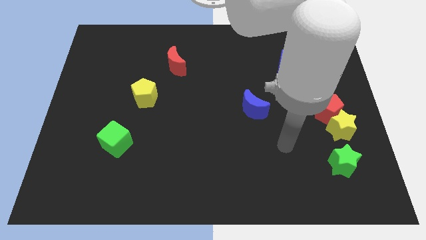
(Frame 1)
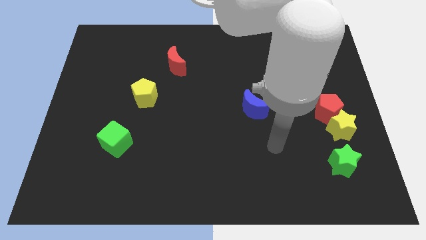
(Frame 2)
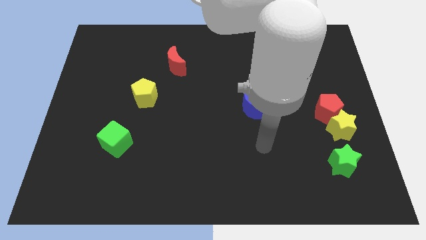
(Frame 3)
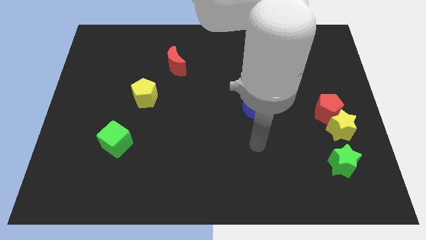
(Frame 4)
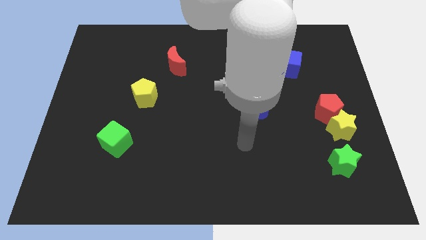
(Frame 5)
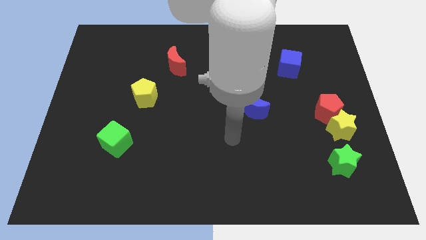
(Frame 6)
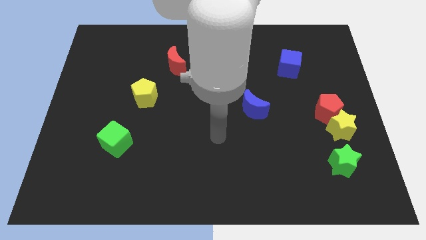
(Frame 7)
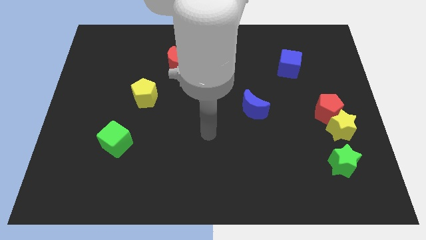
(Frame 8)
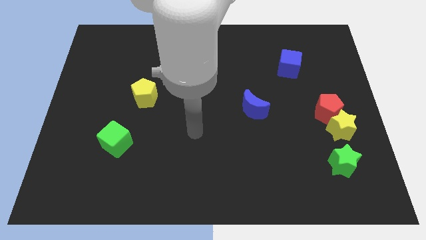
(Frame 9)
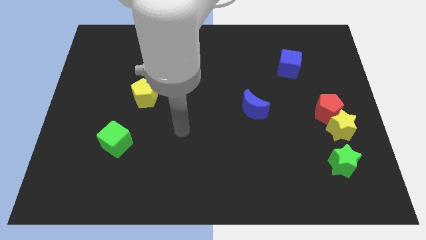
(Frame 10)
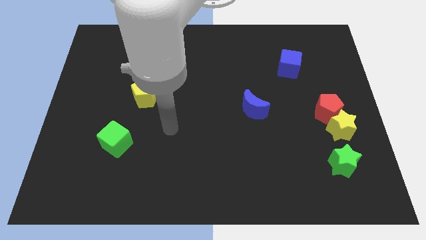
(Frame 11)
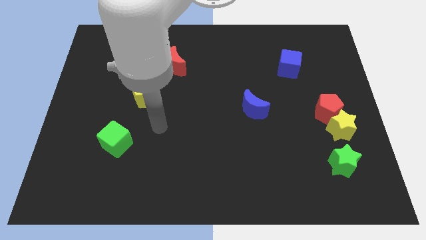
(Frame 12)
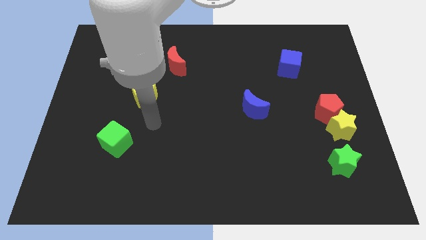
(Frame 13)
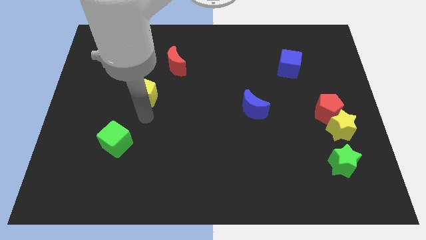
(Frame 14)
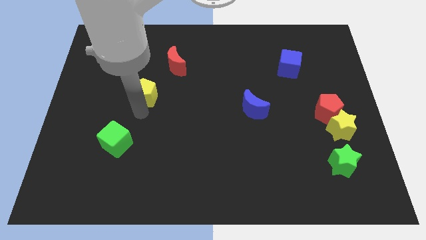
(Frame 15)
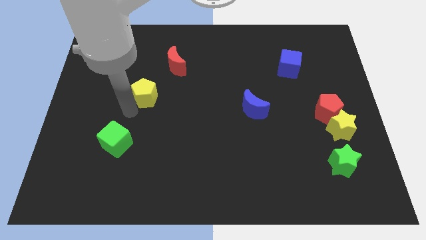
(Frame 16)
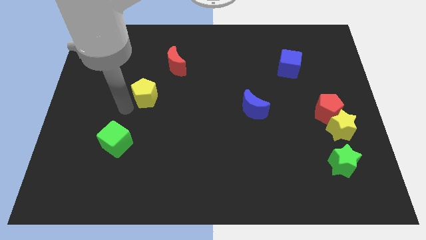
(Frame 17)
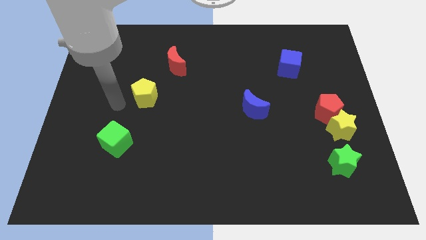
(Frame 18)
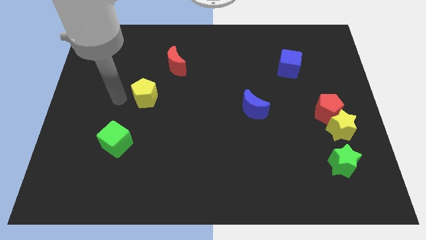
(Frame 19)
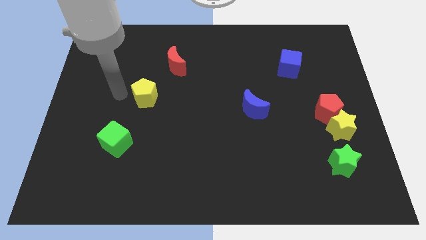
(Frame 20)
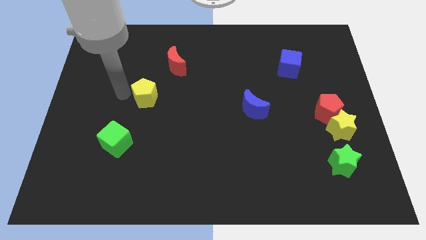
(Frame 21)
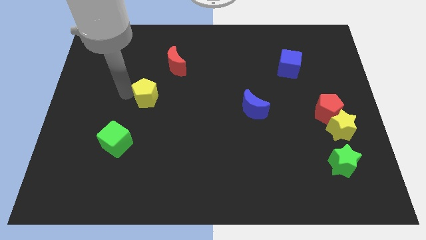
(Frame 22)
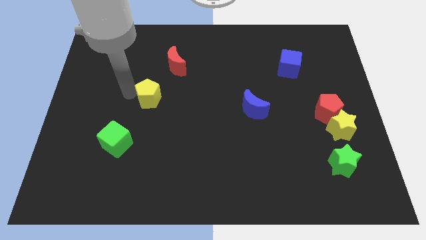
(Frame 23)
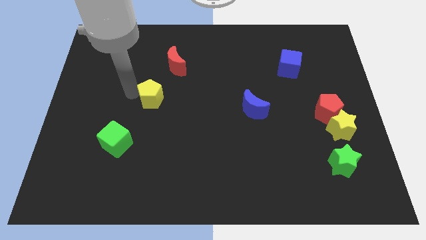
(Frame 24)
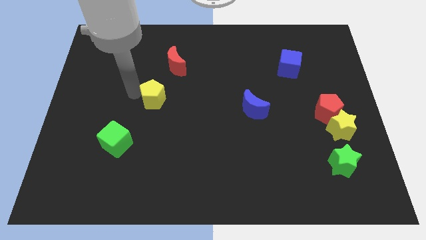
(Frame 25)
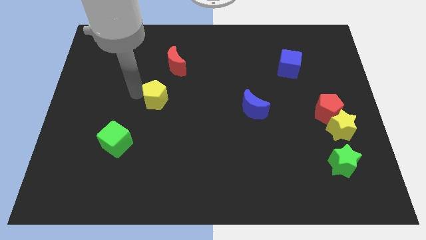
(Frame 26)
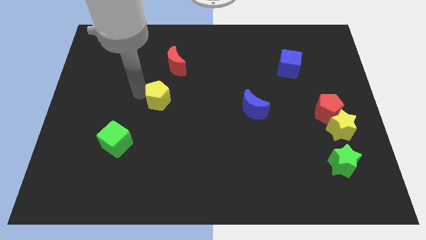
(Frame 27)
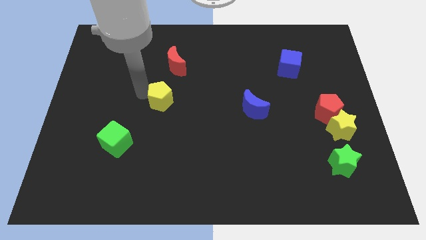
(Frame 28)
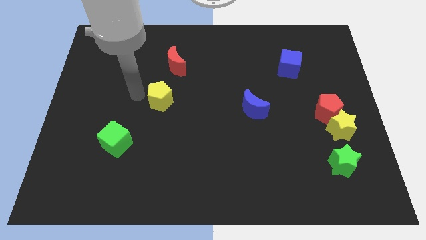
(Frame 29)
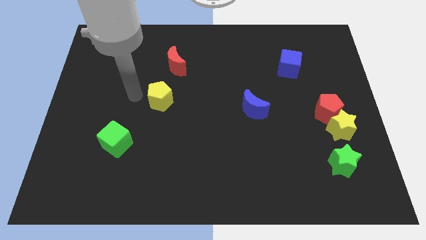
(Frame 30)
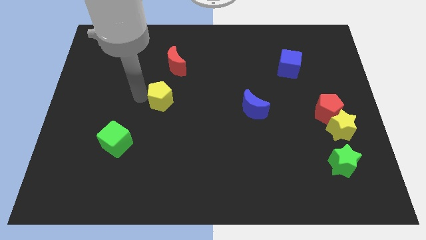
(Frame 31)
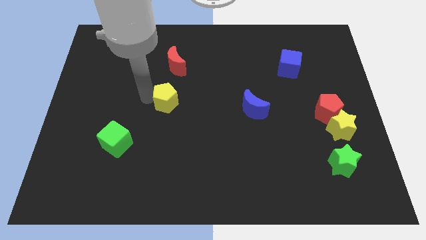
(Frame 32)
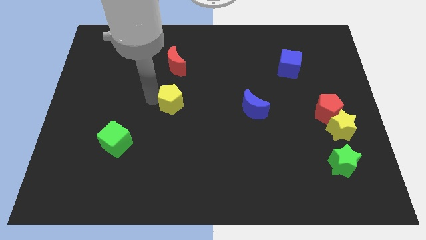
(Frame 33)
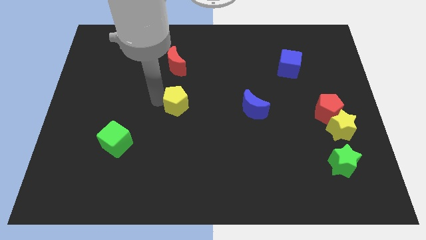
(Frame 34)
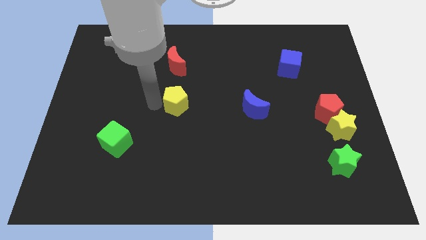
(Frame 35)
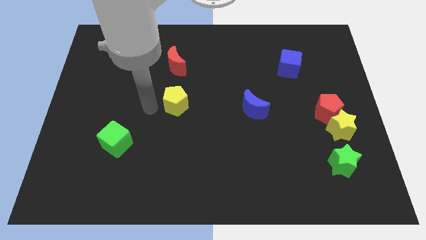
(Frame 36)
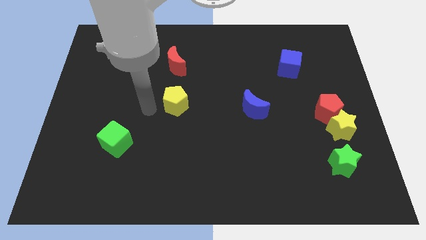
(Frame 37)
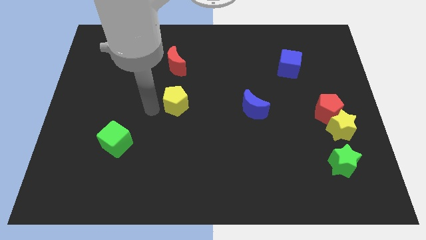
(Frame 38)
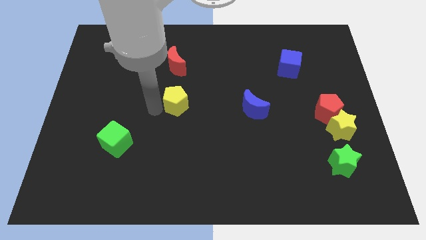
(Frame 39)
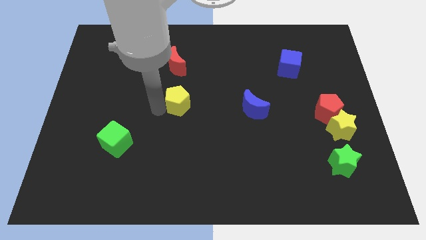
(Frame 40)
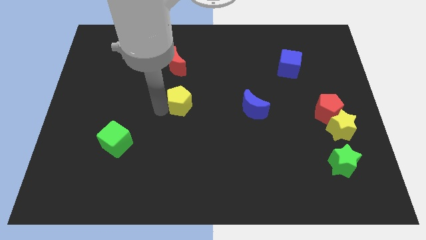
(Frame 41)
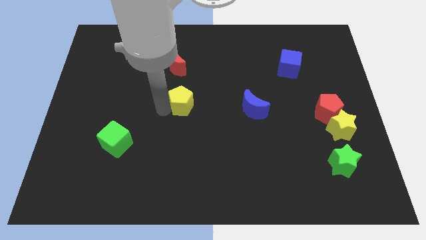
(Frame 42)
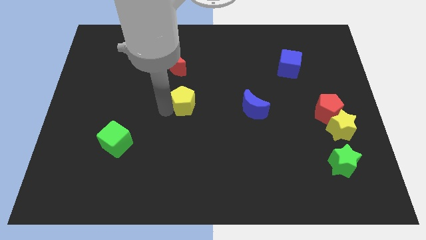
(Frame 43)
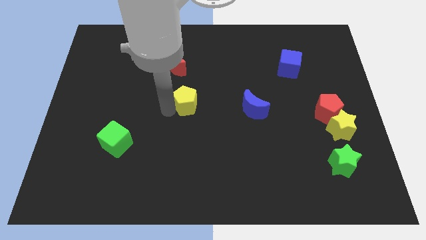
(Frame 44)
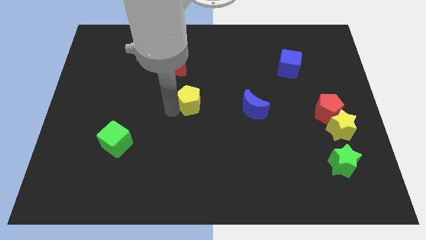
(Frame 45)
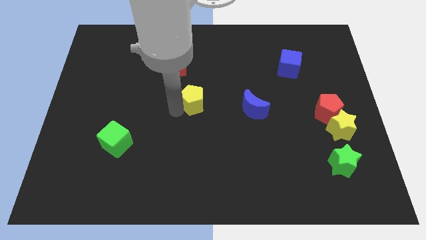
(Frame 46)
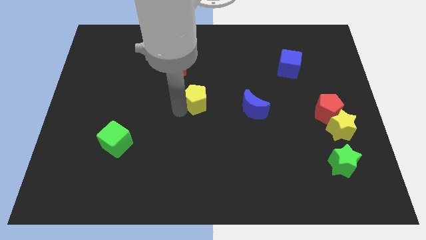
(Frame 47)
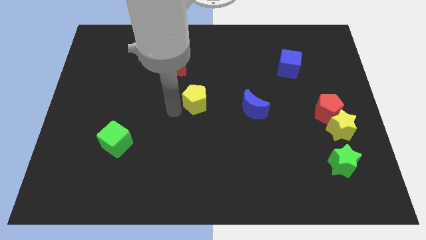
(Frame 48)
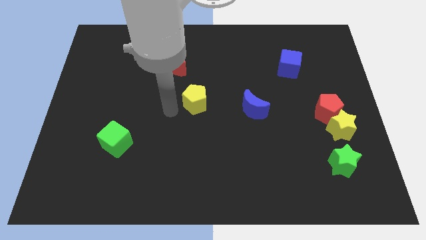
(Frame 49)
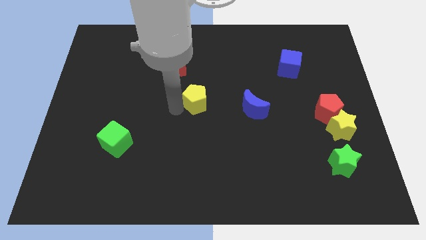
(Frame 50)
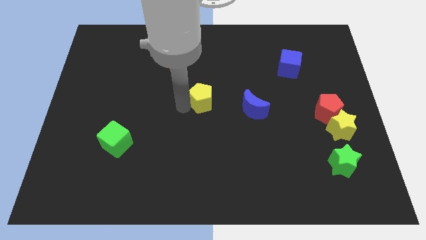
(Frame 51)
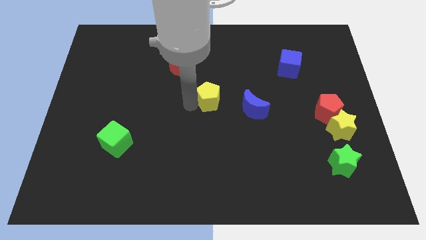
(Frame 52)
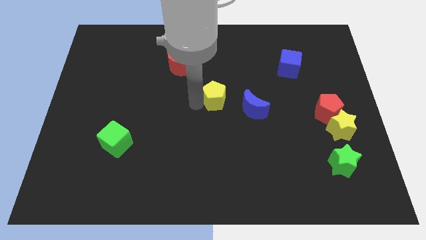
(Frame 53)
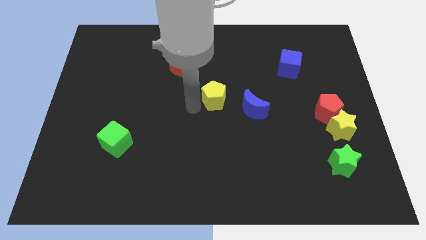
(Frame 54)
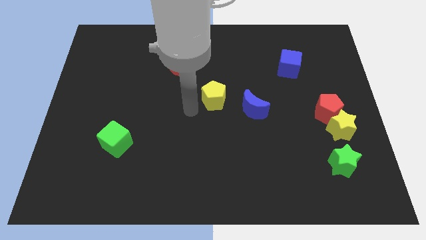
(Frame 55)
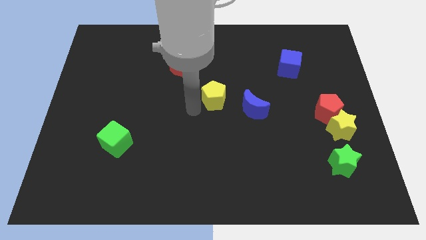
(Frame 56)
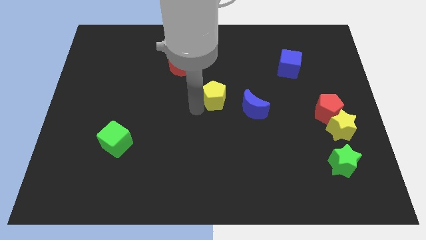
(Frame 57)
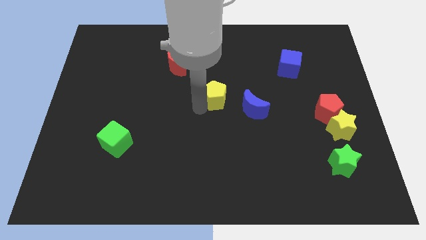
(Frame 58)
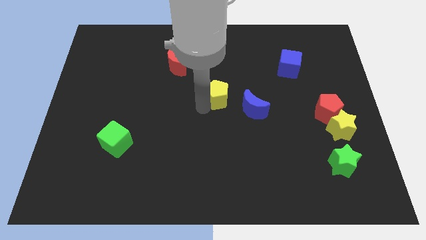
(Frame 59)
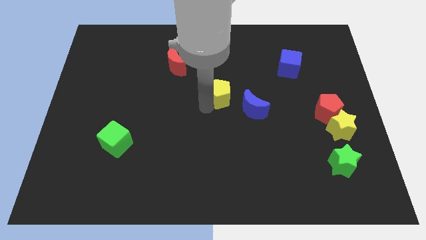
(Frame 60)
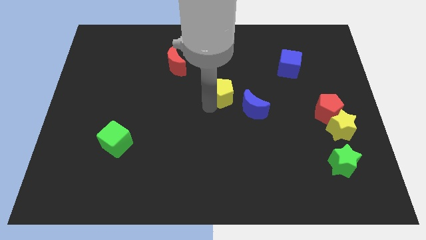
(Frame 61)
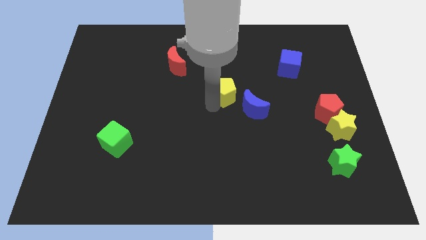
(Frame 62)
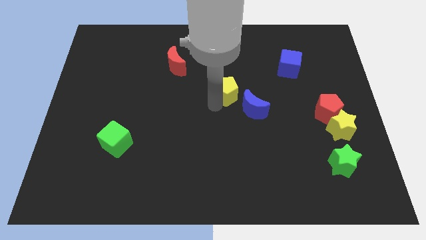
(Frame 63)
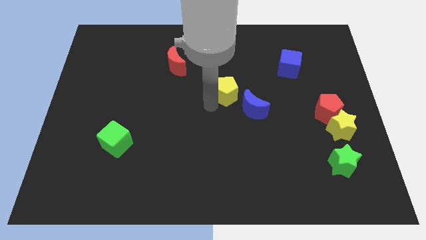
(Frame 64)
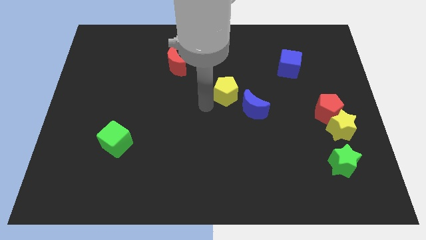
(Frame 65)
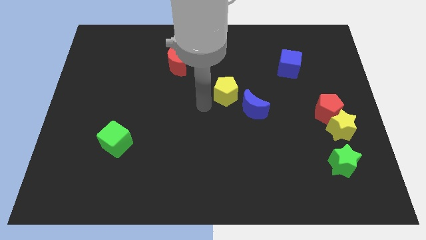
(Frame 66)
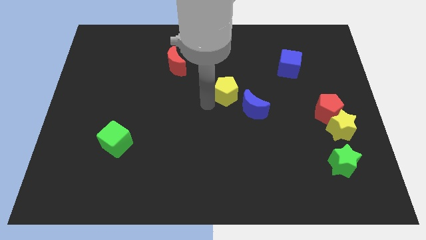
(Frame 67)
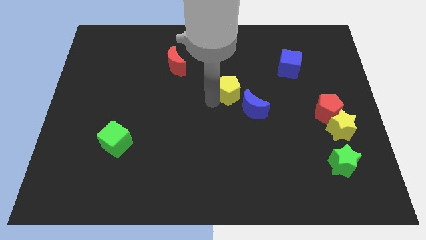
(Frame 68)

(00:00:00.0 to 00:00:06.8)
move the yellow pentagon right

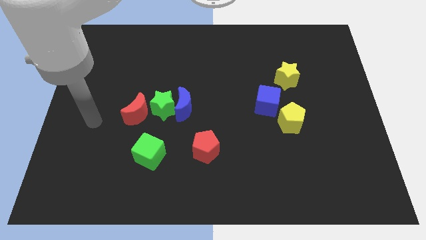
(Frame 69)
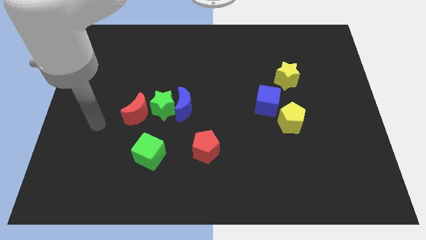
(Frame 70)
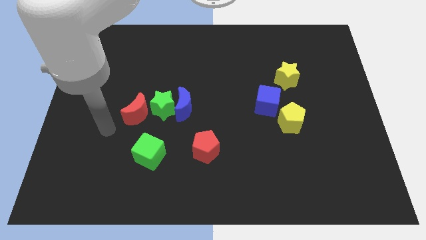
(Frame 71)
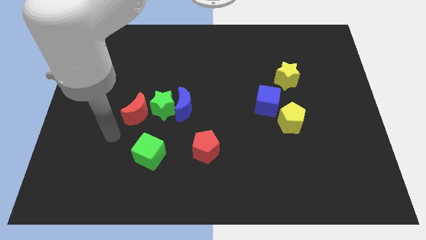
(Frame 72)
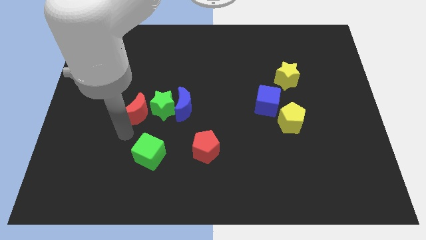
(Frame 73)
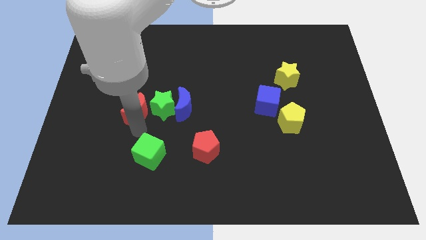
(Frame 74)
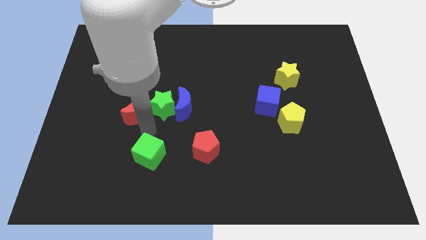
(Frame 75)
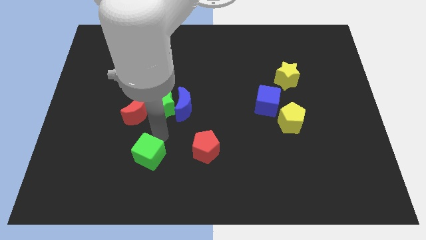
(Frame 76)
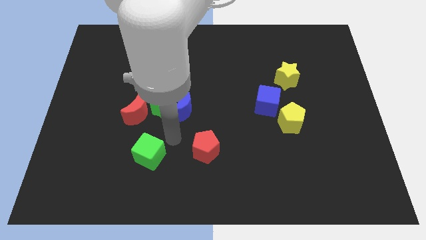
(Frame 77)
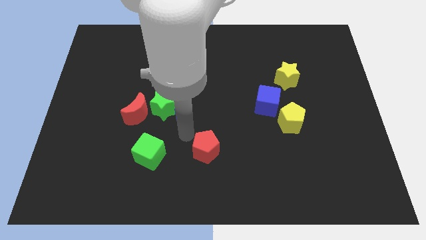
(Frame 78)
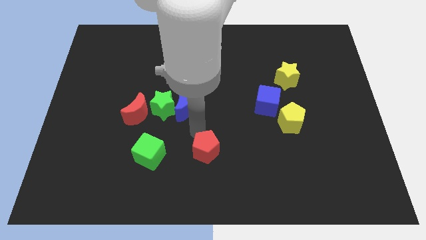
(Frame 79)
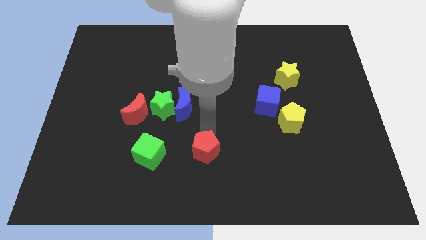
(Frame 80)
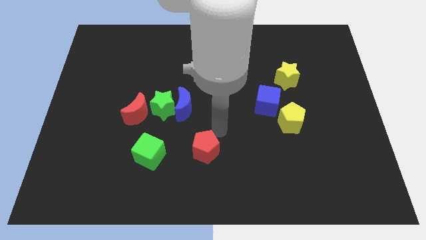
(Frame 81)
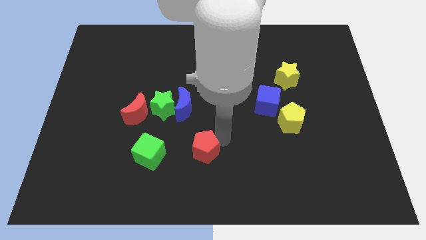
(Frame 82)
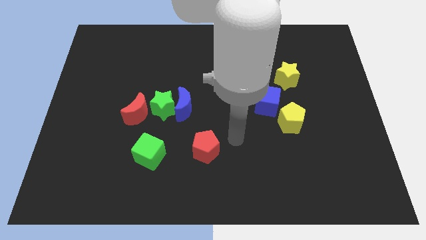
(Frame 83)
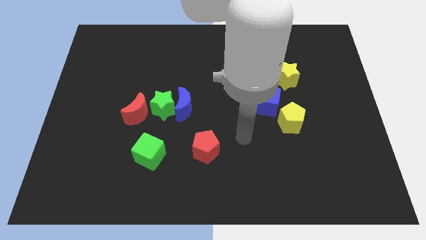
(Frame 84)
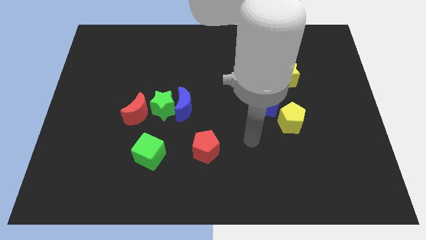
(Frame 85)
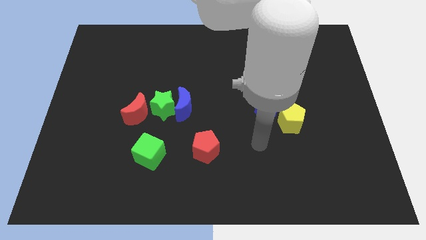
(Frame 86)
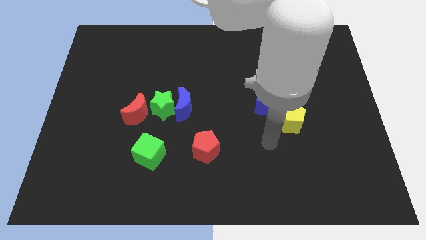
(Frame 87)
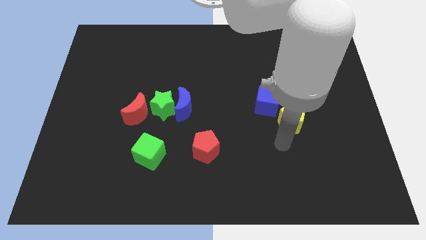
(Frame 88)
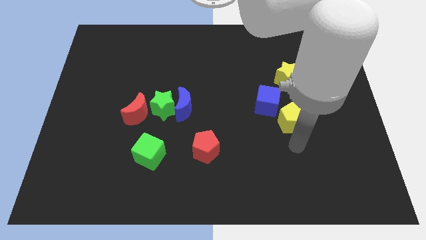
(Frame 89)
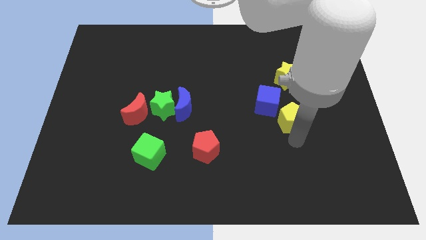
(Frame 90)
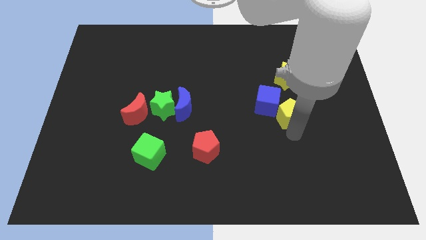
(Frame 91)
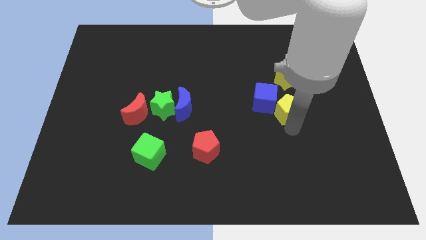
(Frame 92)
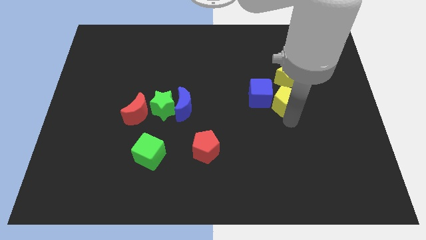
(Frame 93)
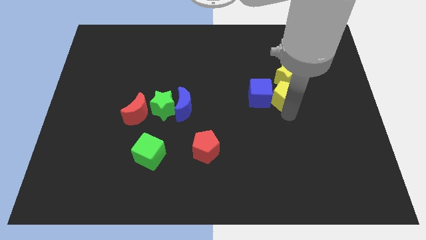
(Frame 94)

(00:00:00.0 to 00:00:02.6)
slide the yellow pentagon a little up
